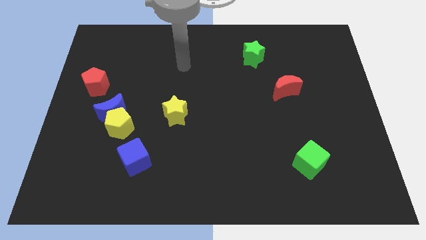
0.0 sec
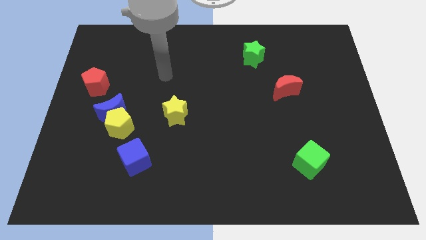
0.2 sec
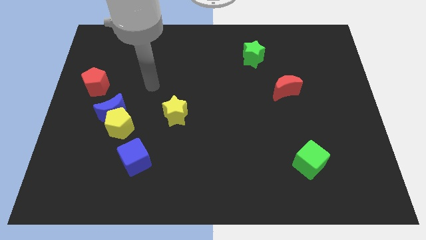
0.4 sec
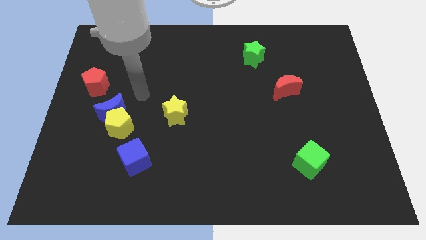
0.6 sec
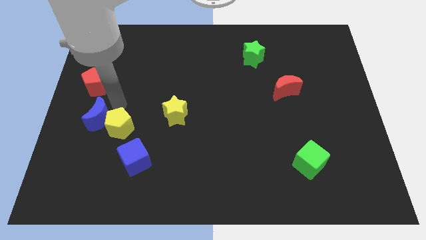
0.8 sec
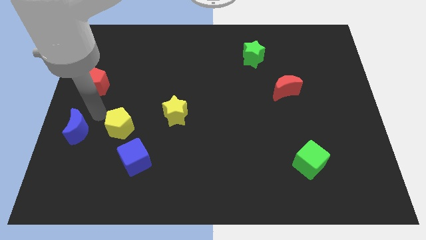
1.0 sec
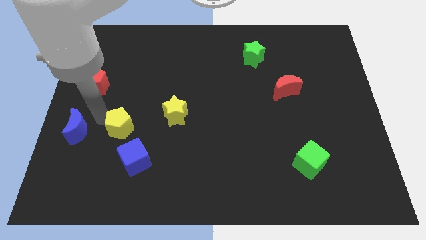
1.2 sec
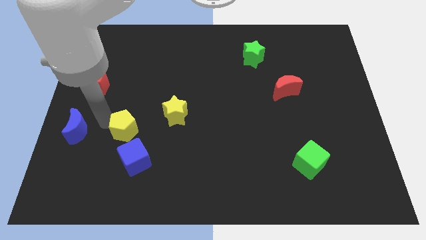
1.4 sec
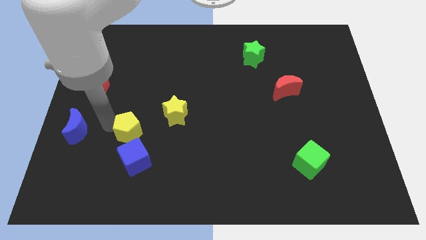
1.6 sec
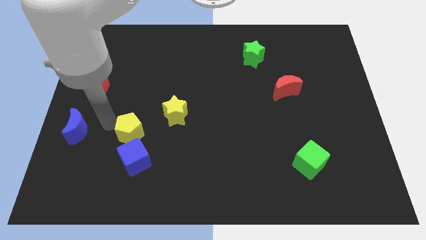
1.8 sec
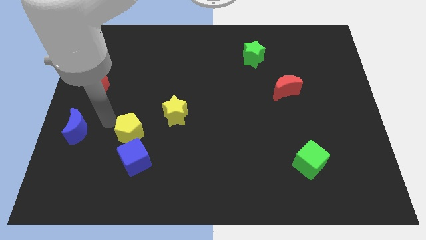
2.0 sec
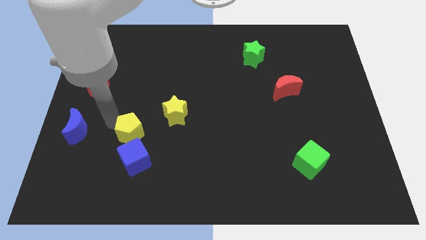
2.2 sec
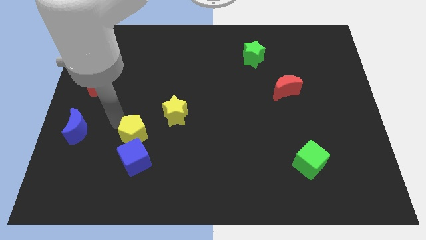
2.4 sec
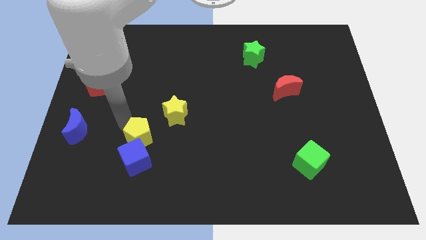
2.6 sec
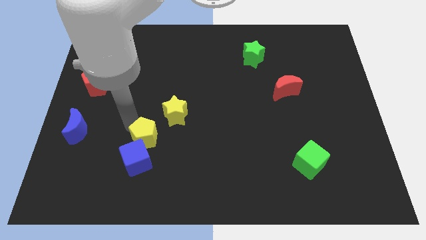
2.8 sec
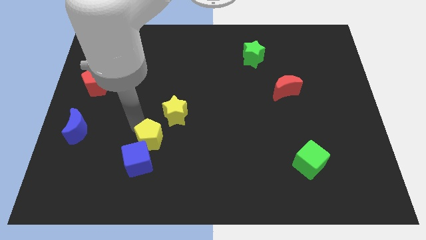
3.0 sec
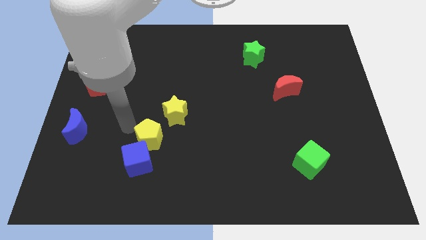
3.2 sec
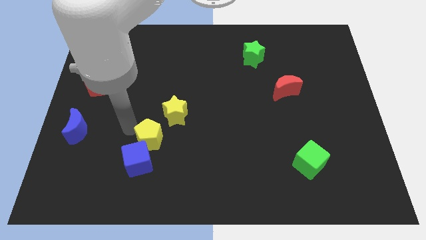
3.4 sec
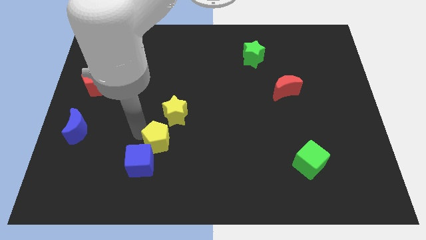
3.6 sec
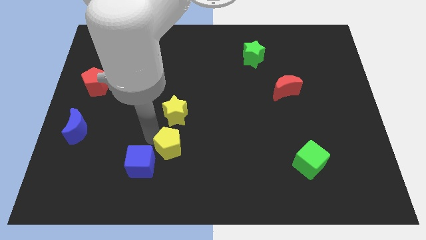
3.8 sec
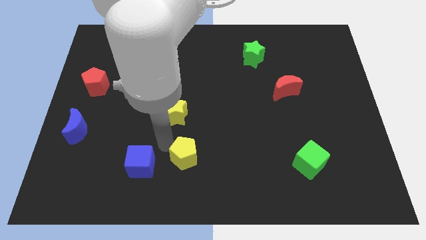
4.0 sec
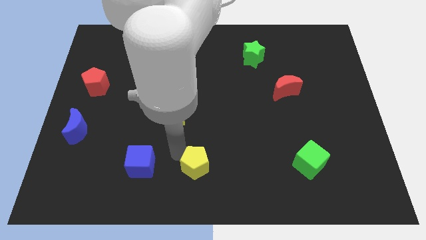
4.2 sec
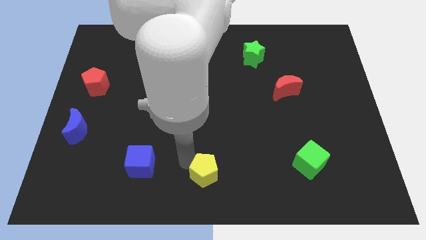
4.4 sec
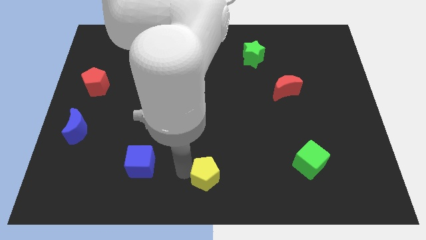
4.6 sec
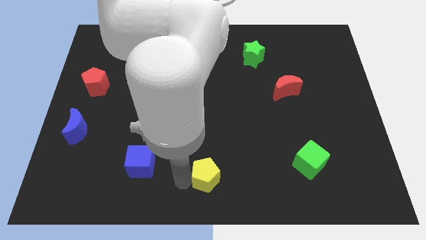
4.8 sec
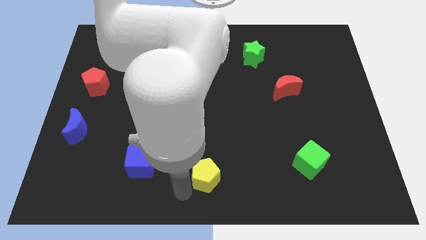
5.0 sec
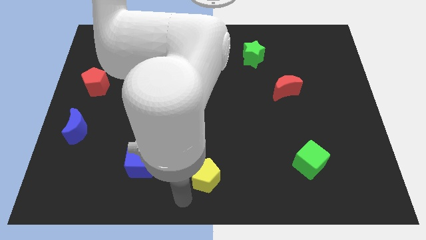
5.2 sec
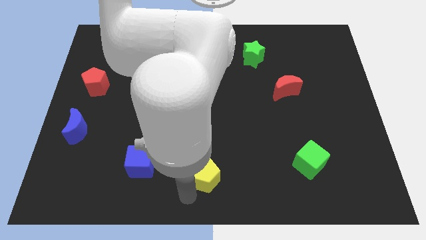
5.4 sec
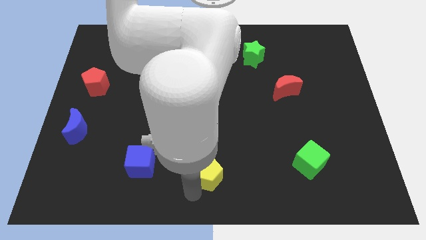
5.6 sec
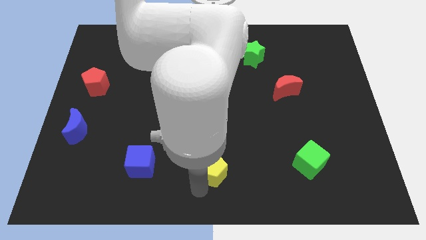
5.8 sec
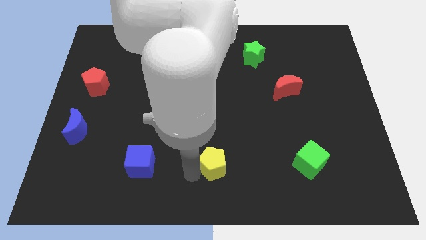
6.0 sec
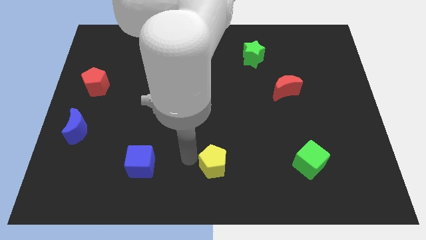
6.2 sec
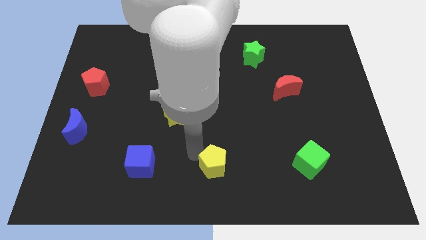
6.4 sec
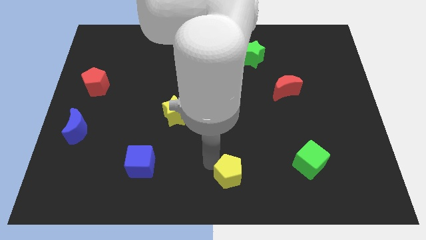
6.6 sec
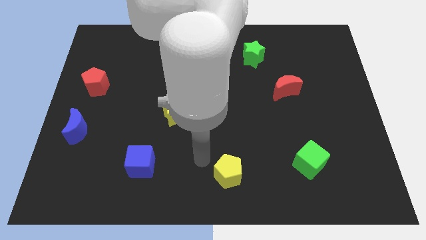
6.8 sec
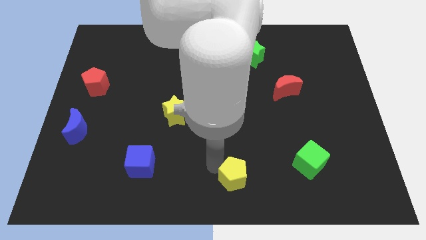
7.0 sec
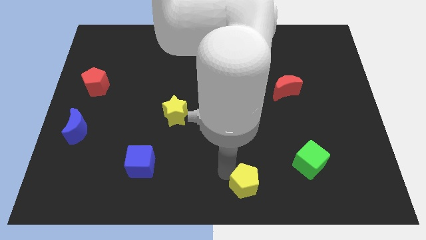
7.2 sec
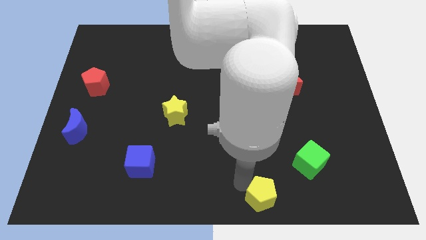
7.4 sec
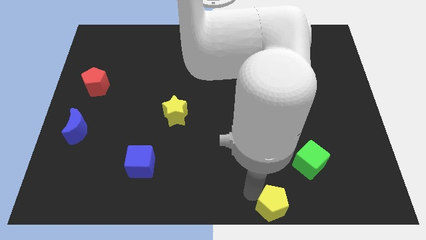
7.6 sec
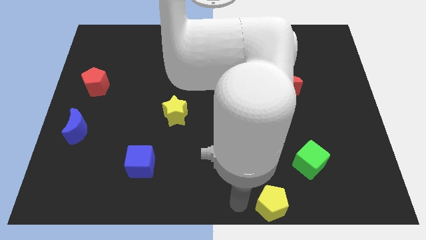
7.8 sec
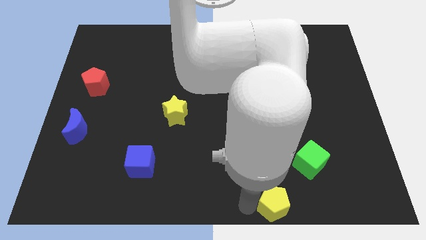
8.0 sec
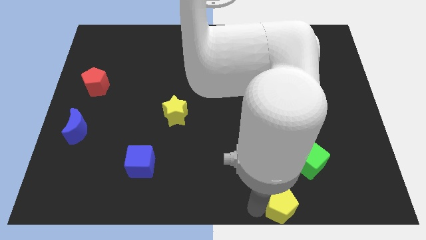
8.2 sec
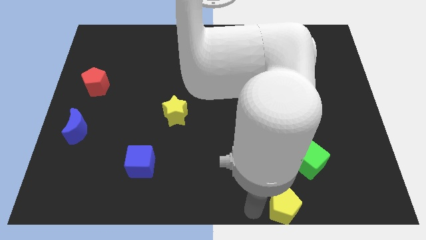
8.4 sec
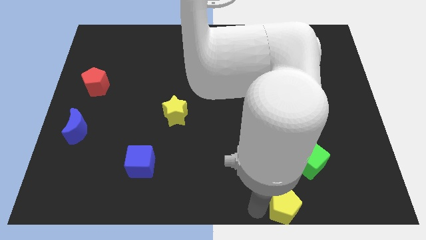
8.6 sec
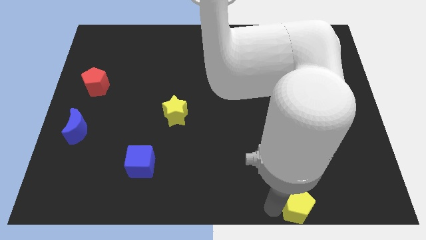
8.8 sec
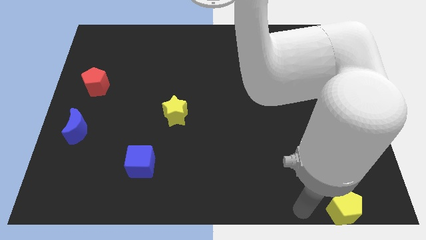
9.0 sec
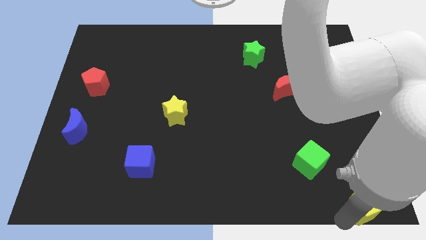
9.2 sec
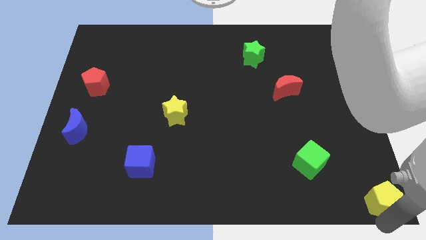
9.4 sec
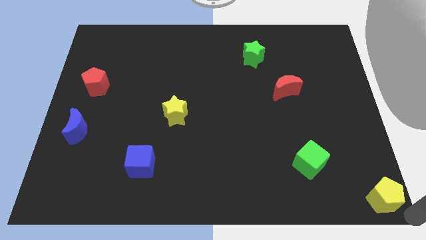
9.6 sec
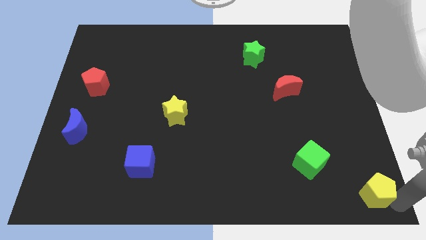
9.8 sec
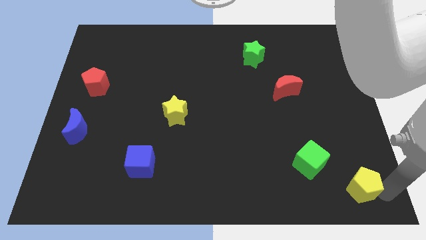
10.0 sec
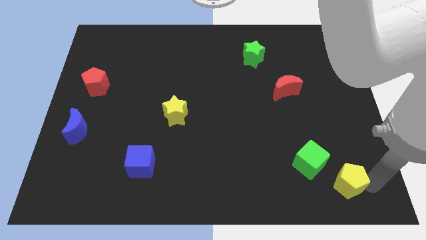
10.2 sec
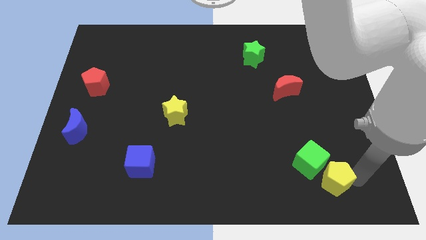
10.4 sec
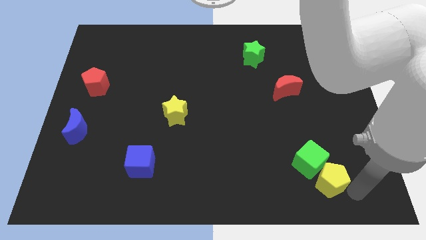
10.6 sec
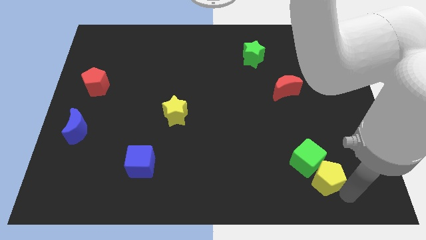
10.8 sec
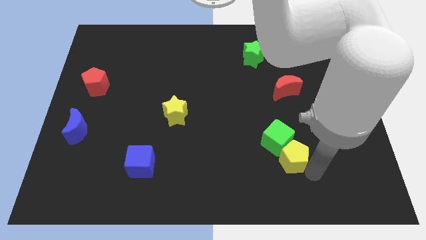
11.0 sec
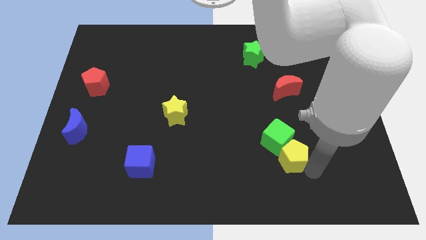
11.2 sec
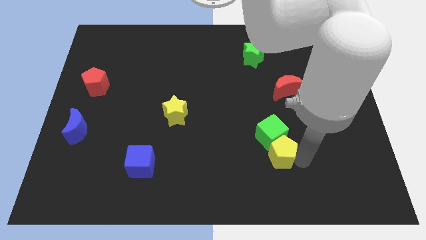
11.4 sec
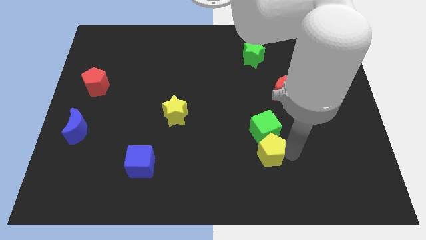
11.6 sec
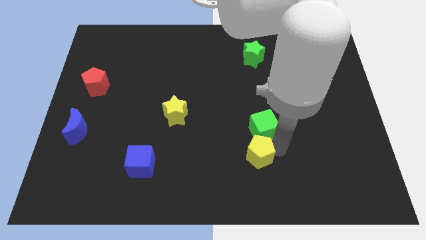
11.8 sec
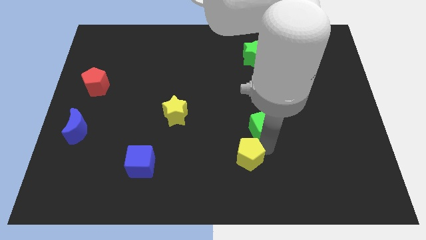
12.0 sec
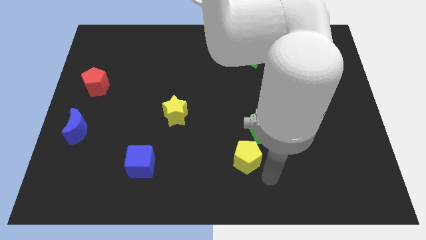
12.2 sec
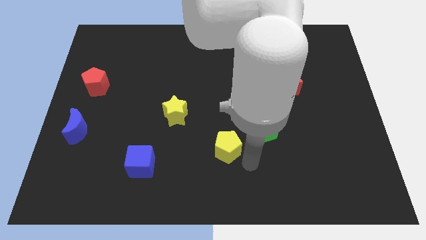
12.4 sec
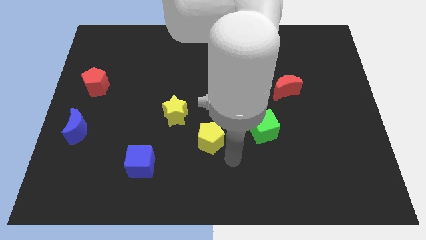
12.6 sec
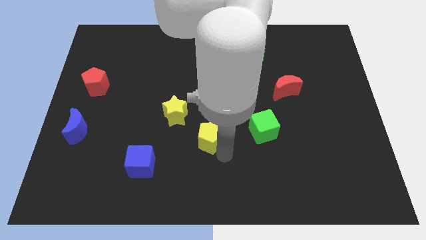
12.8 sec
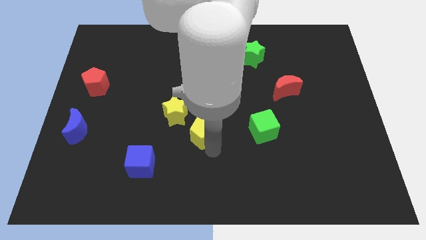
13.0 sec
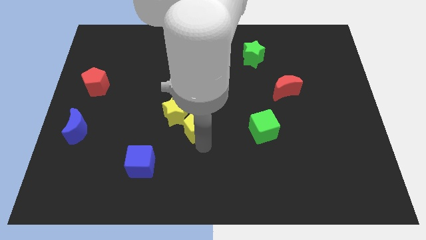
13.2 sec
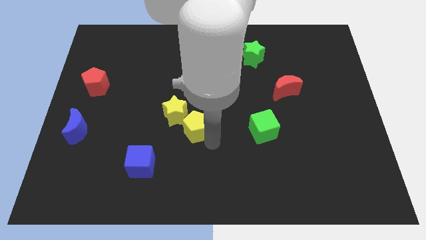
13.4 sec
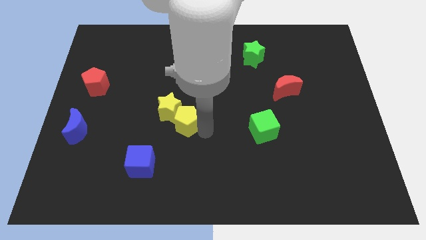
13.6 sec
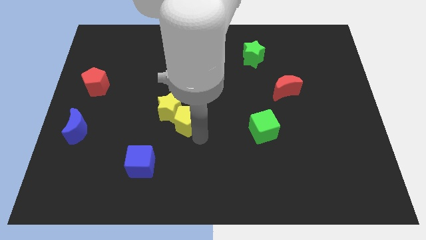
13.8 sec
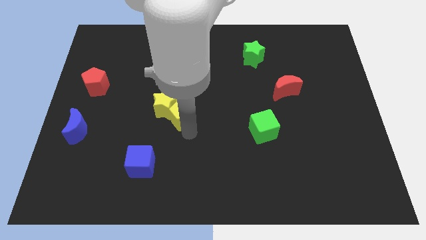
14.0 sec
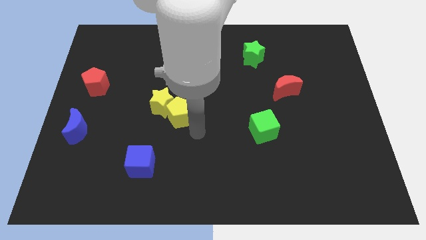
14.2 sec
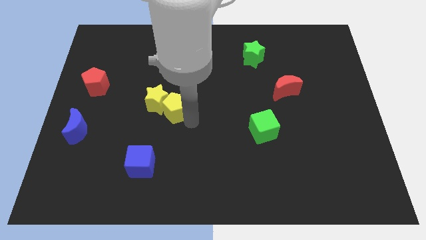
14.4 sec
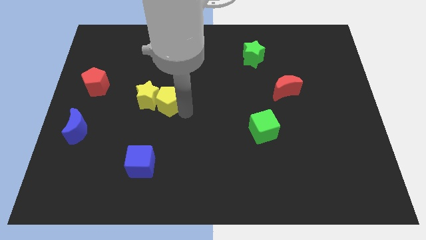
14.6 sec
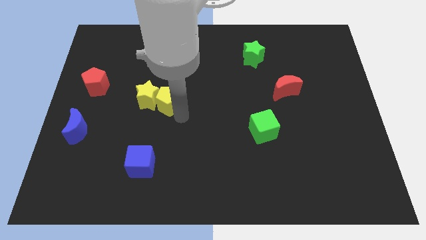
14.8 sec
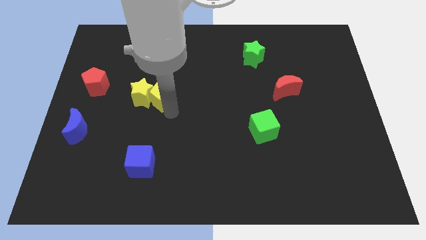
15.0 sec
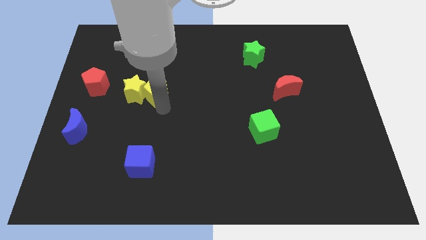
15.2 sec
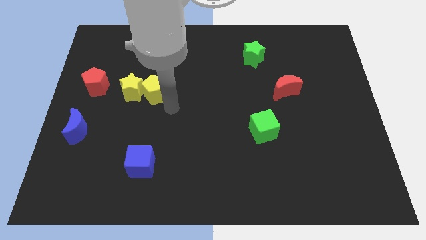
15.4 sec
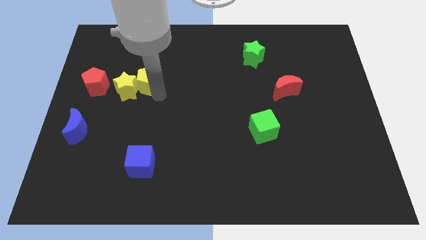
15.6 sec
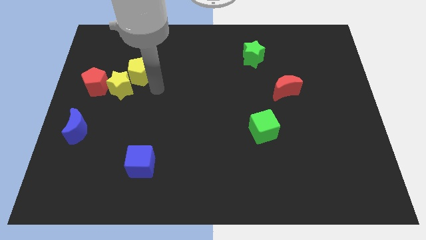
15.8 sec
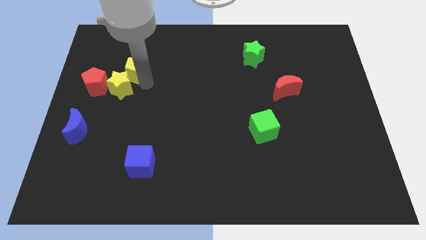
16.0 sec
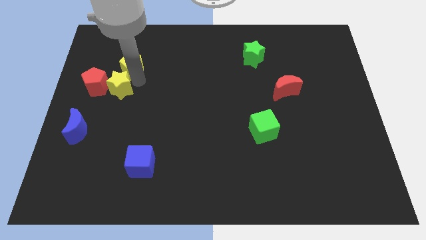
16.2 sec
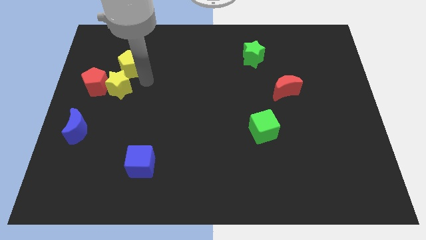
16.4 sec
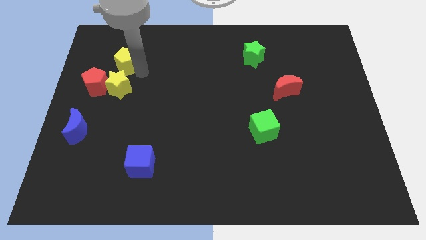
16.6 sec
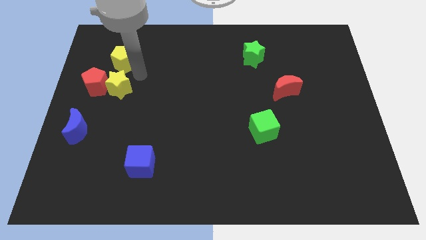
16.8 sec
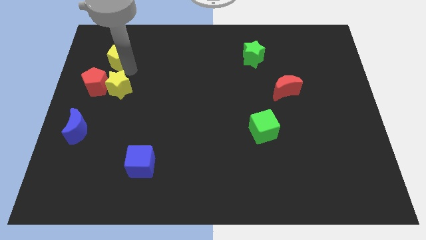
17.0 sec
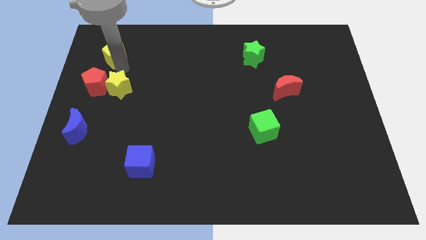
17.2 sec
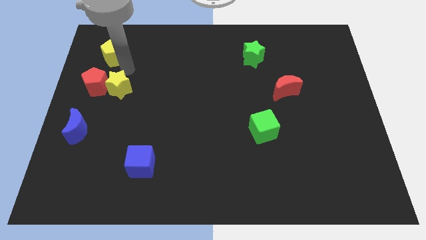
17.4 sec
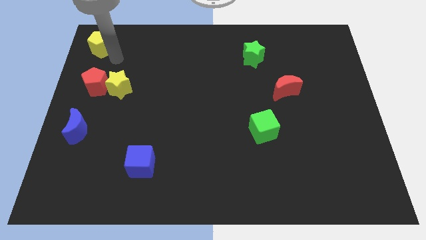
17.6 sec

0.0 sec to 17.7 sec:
put the yellow pentagon to the top left corner
